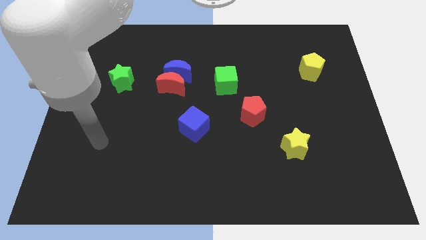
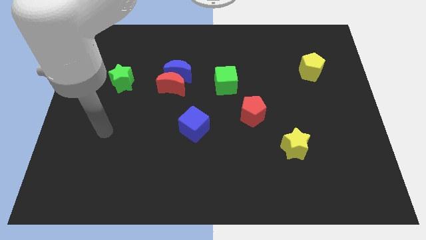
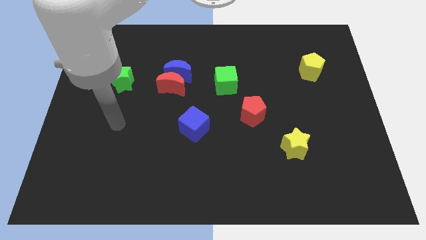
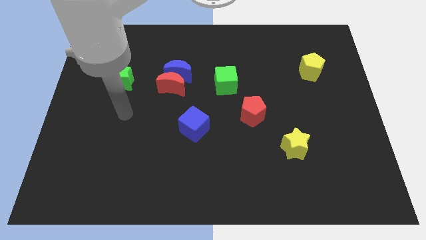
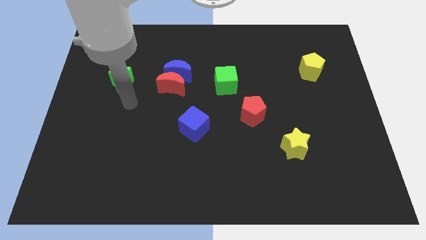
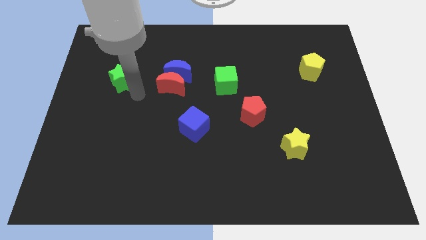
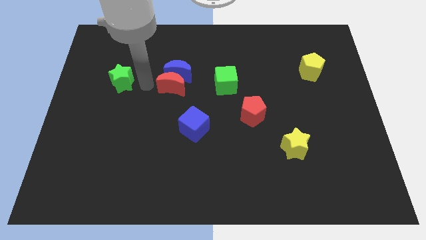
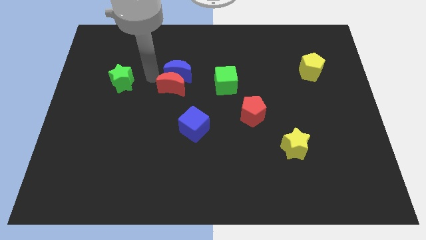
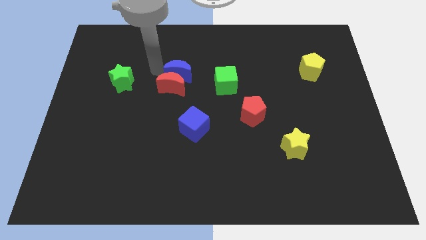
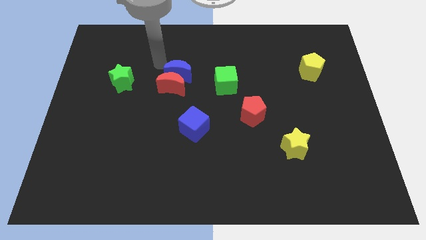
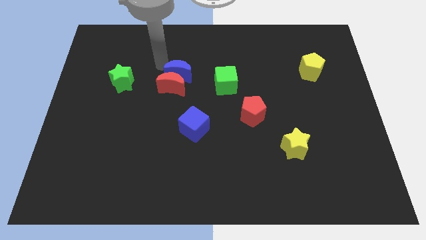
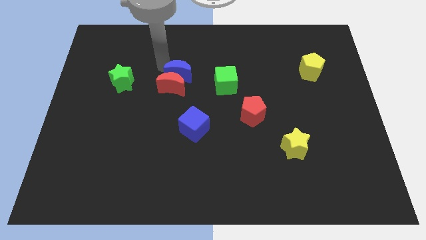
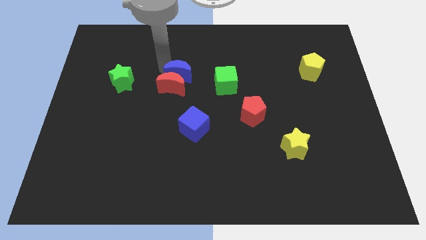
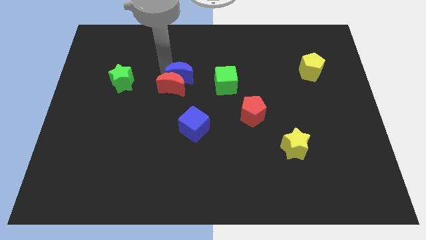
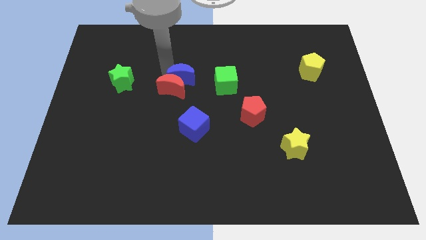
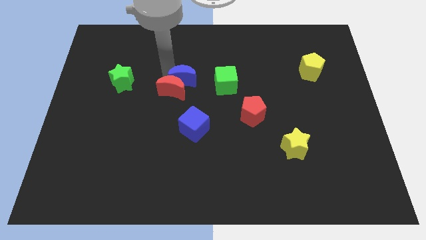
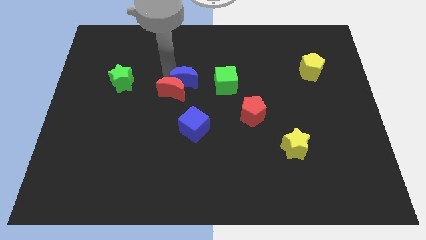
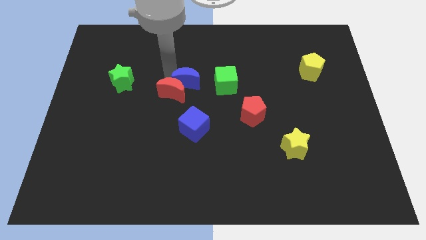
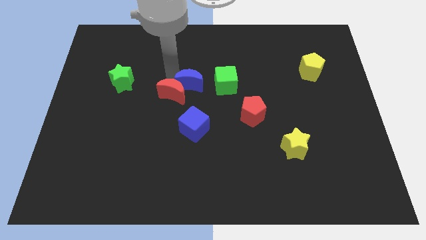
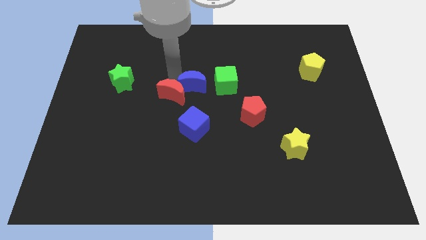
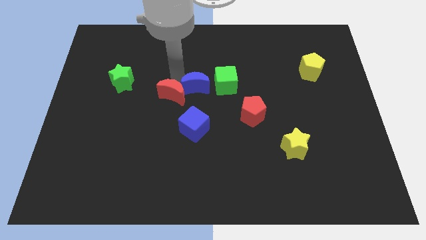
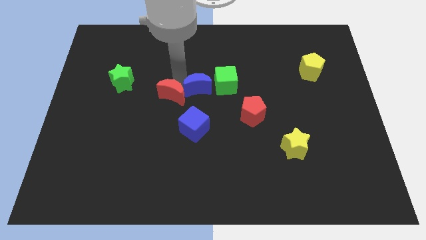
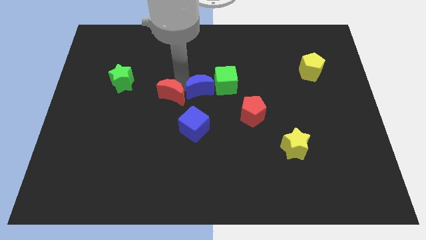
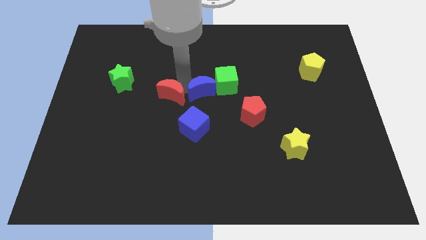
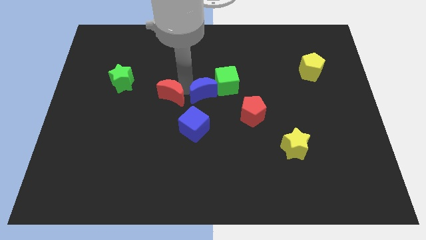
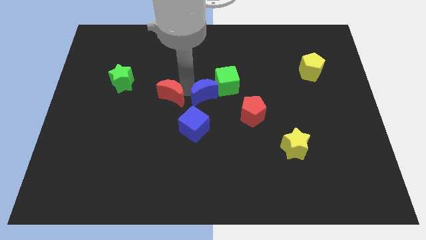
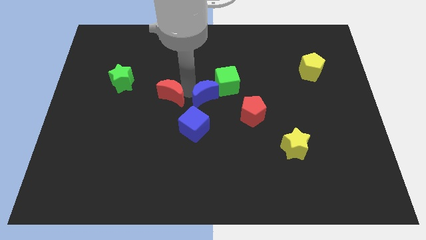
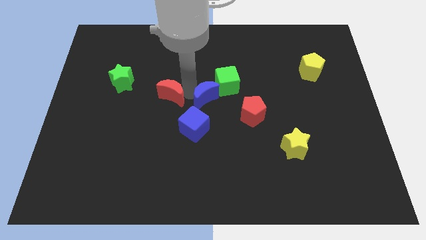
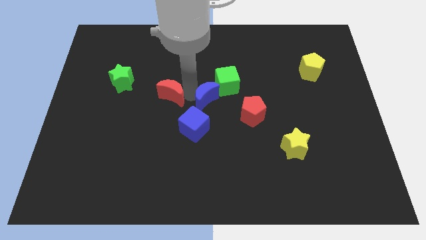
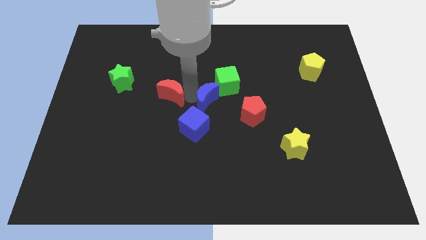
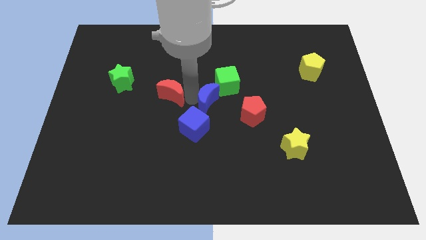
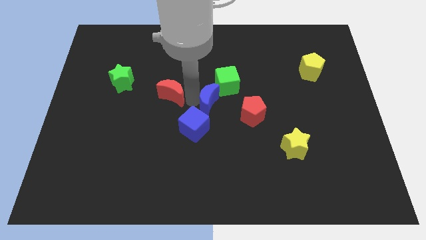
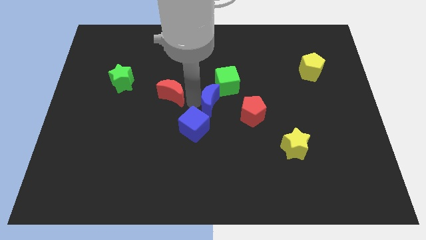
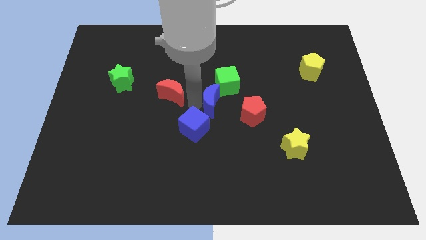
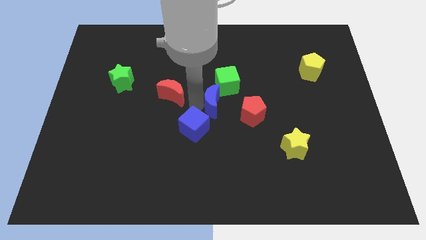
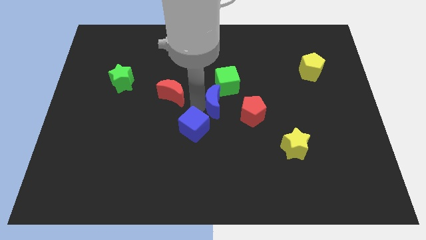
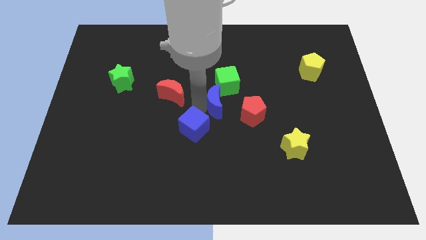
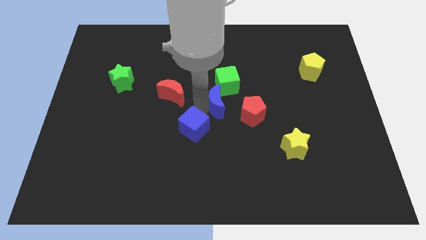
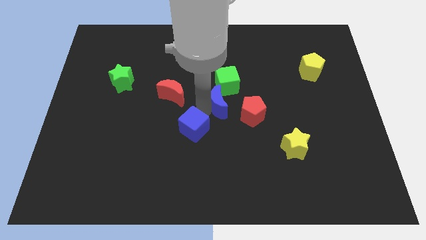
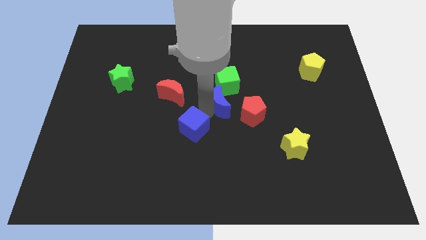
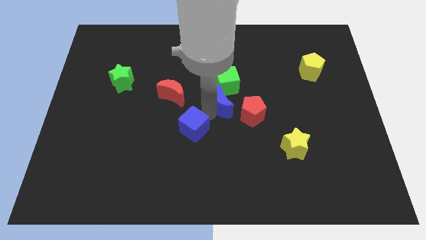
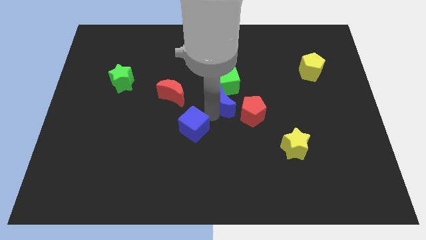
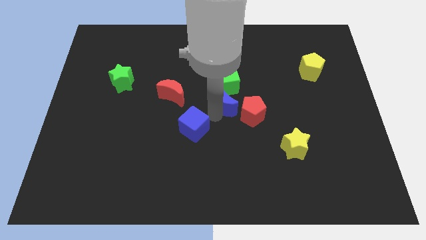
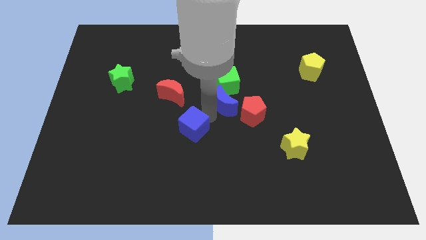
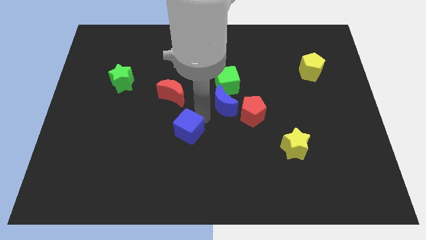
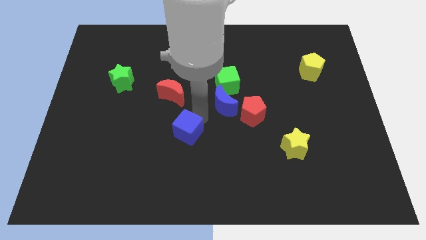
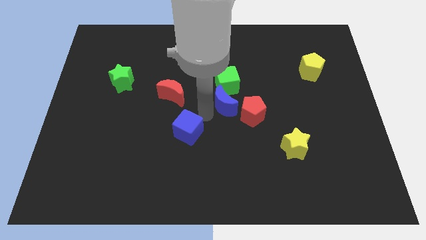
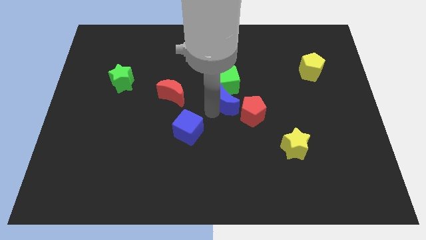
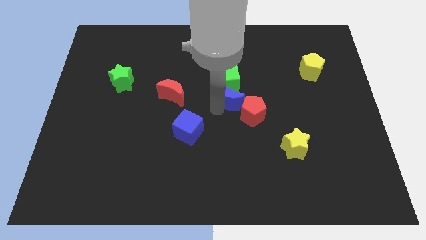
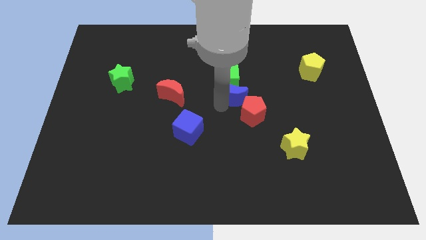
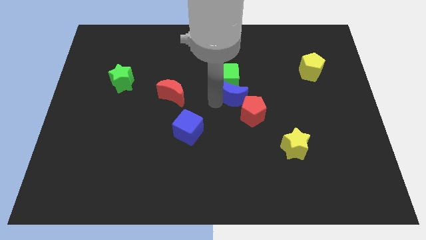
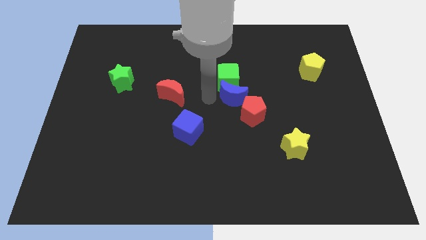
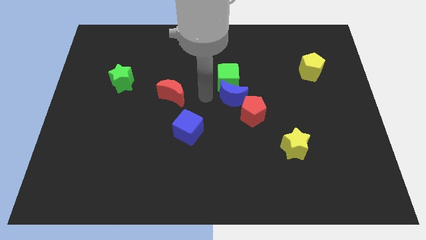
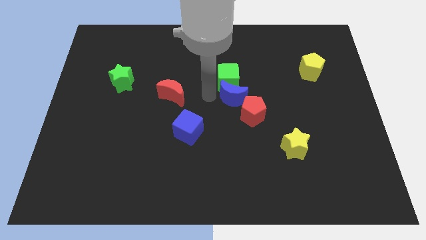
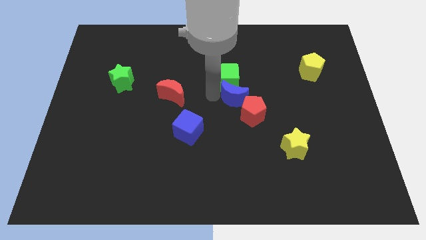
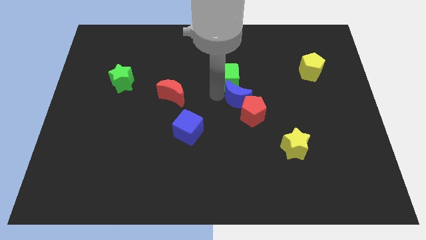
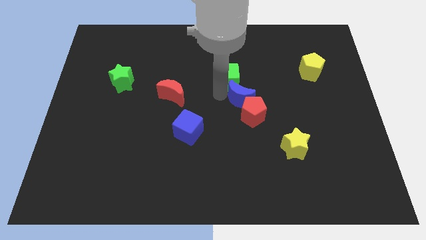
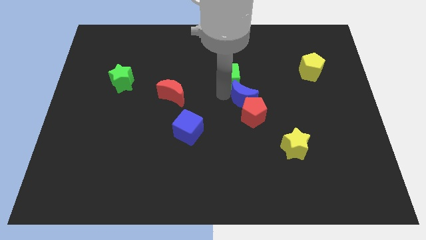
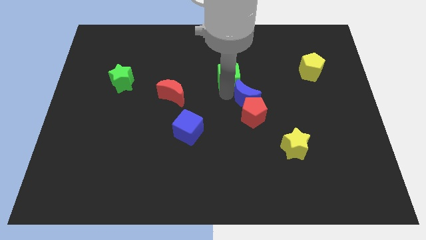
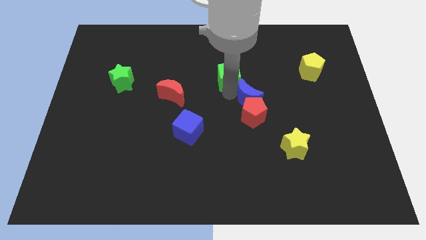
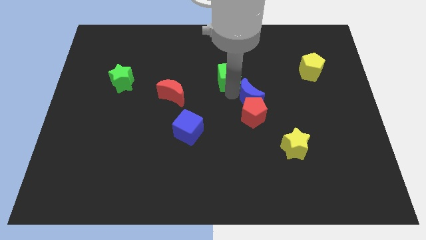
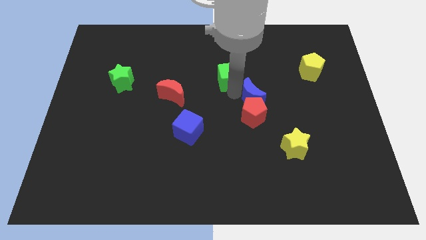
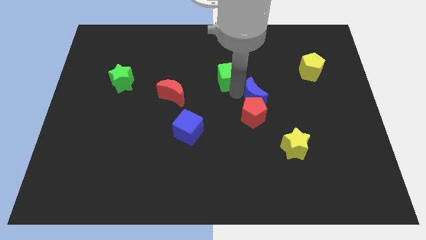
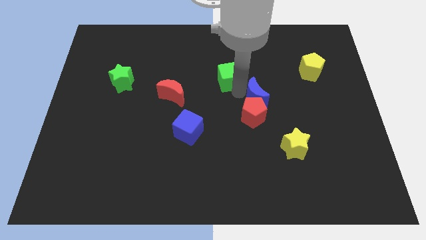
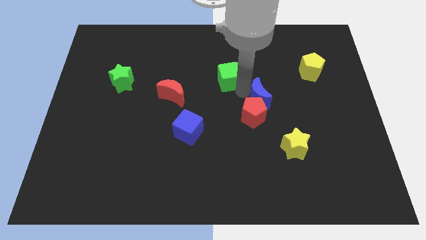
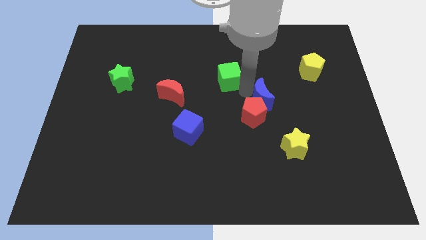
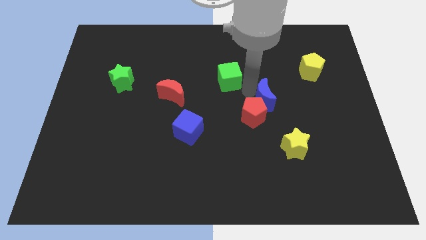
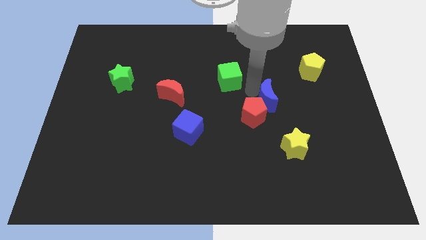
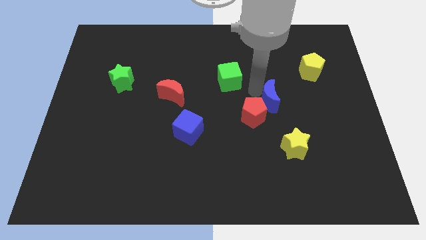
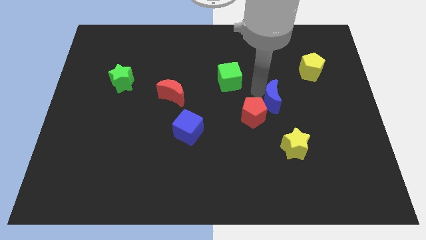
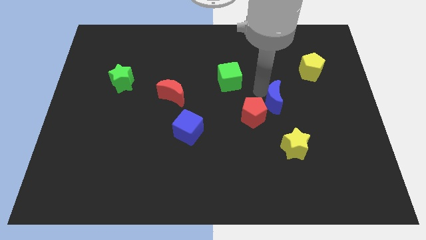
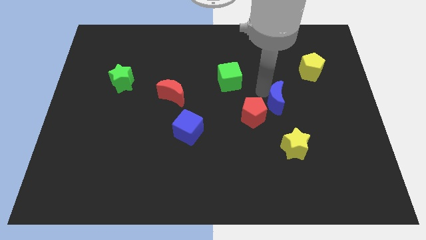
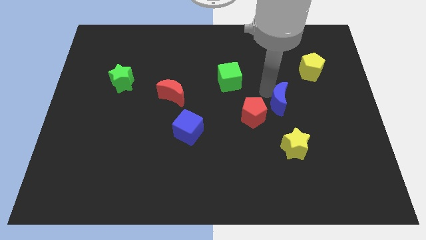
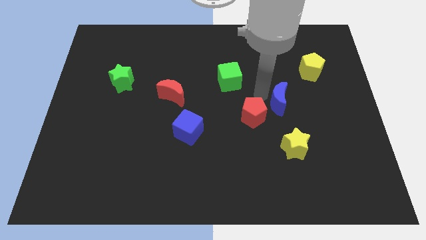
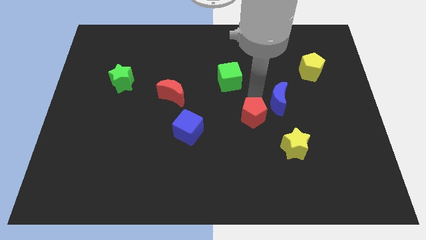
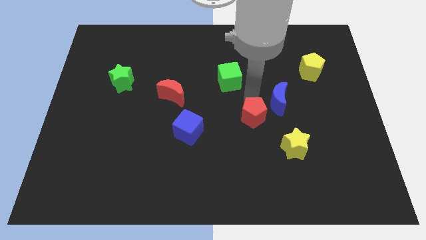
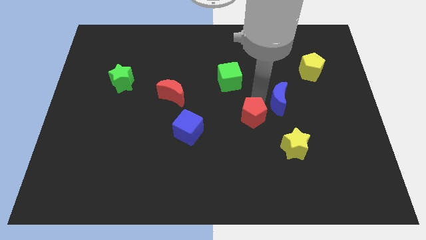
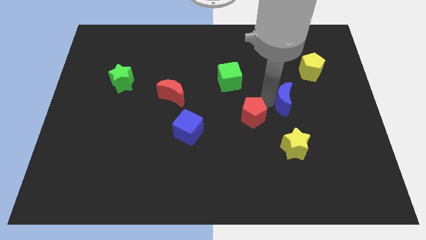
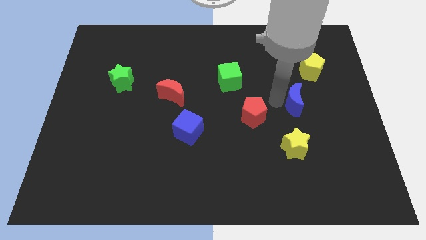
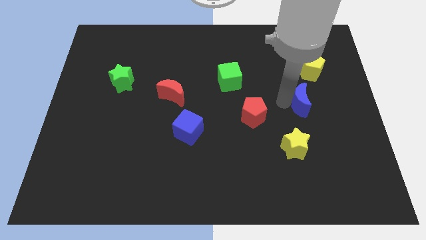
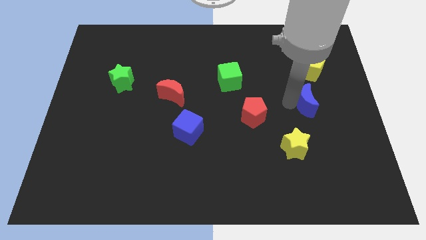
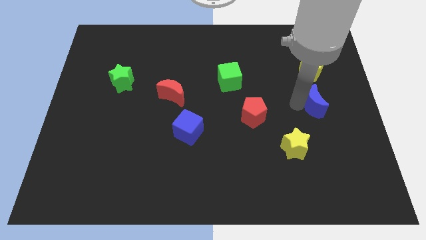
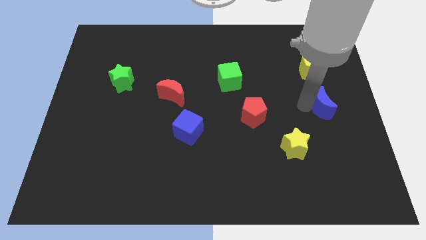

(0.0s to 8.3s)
put the blue moon to the right side
